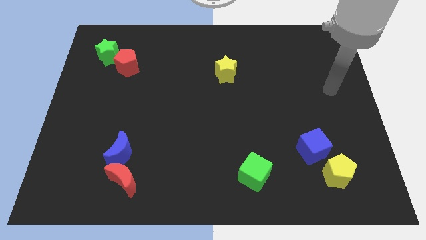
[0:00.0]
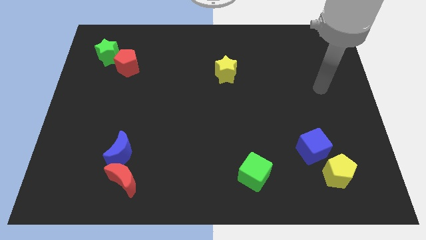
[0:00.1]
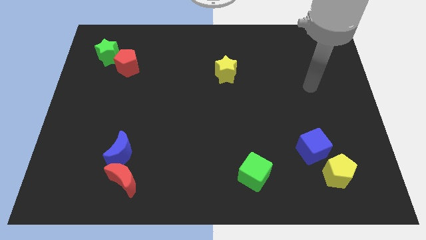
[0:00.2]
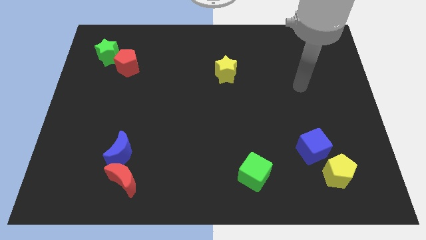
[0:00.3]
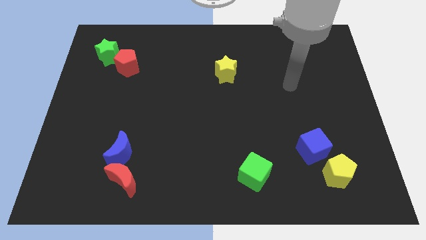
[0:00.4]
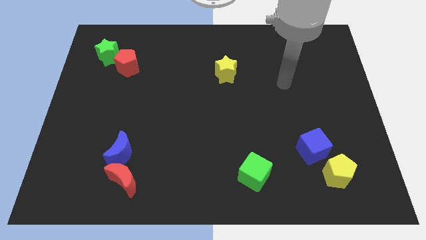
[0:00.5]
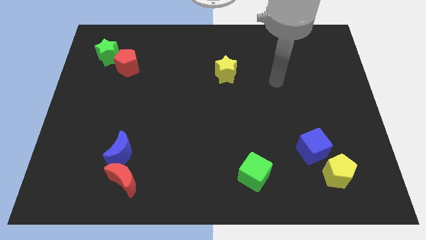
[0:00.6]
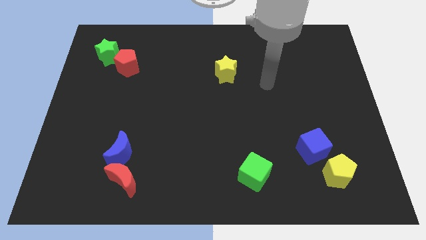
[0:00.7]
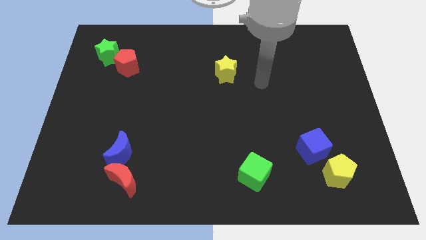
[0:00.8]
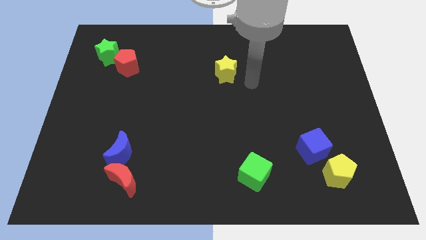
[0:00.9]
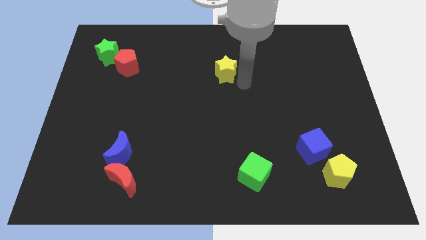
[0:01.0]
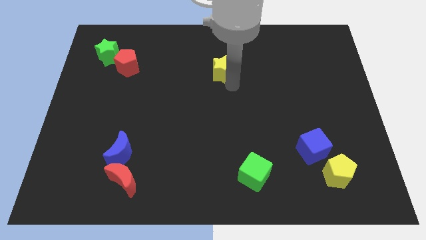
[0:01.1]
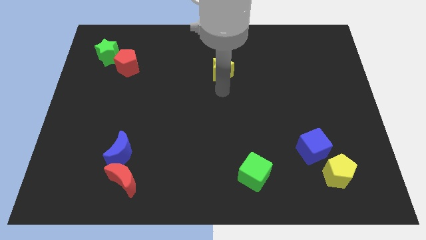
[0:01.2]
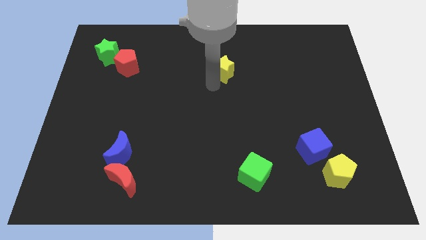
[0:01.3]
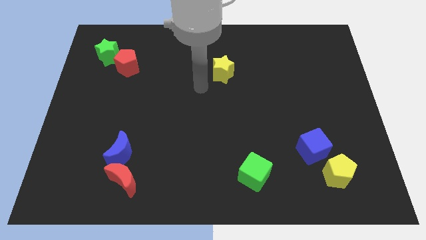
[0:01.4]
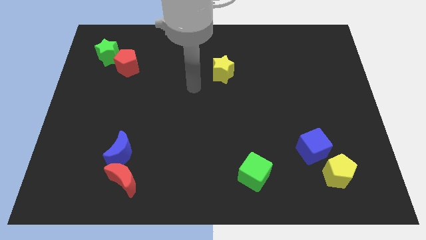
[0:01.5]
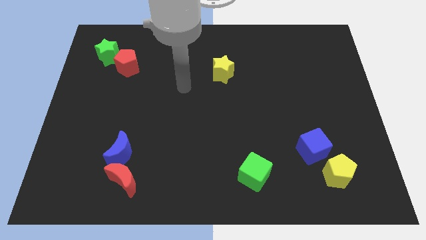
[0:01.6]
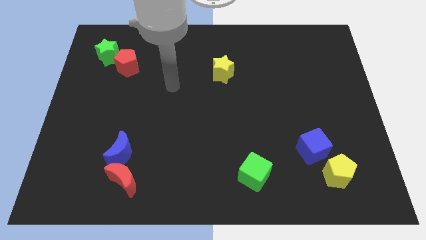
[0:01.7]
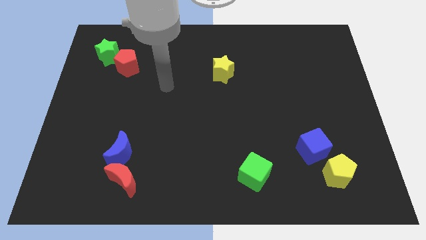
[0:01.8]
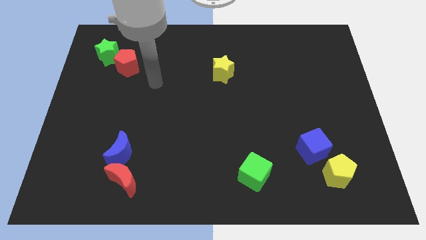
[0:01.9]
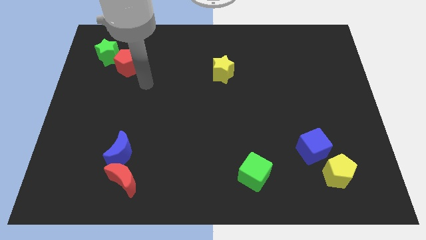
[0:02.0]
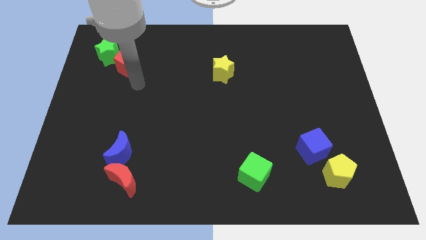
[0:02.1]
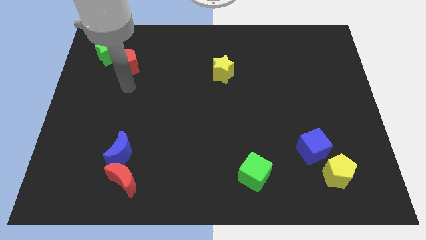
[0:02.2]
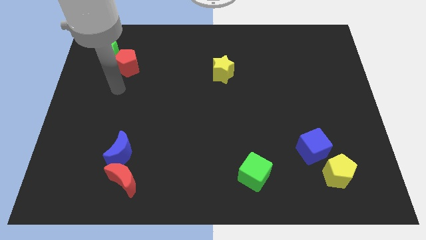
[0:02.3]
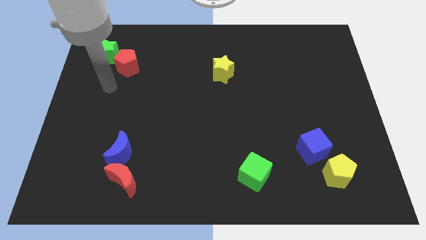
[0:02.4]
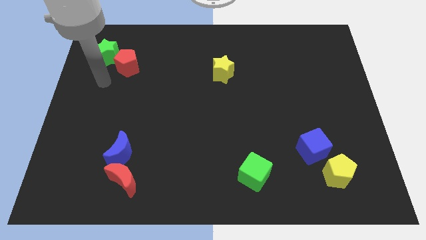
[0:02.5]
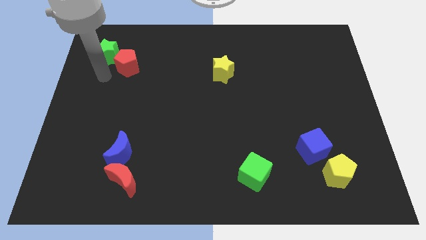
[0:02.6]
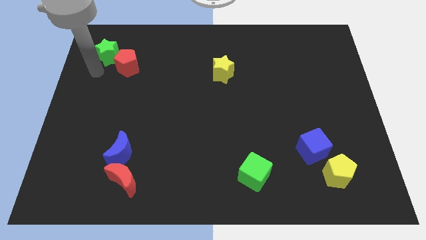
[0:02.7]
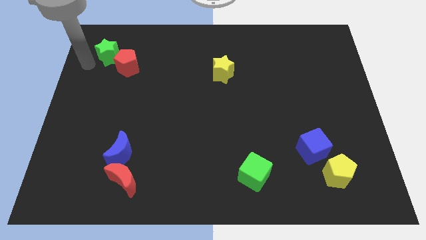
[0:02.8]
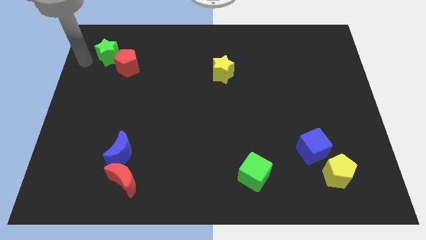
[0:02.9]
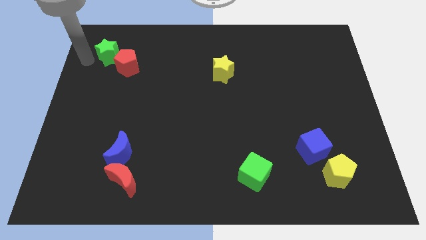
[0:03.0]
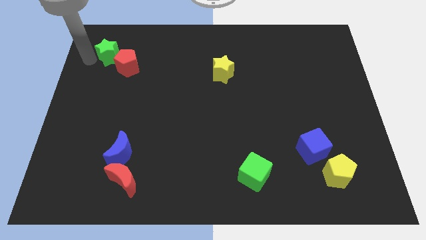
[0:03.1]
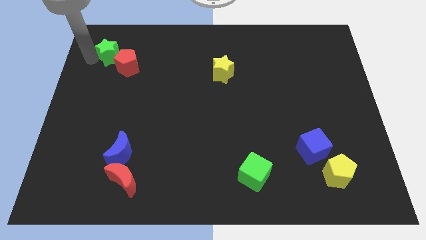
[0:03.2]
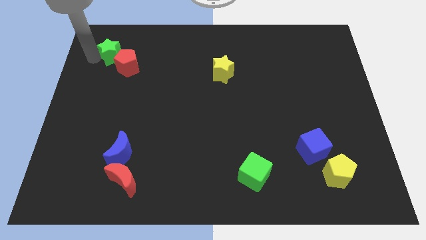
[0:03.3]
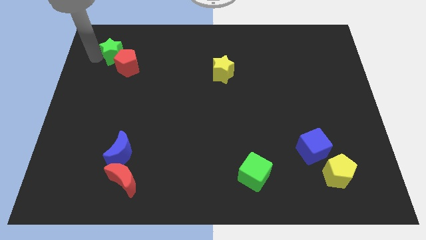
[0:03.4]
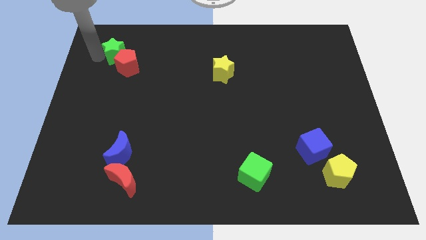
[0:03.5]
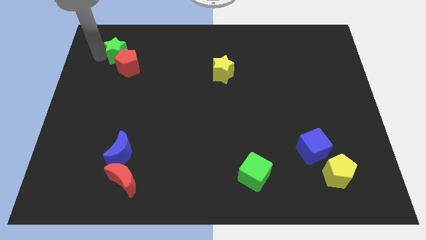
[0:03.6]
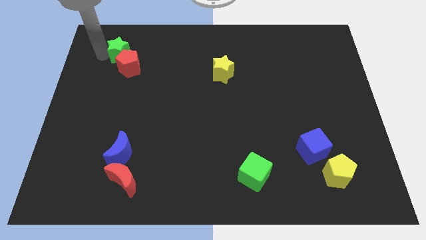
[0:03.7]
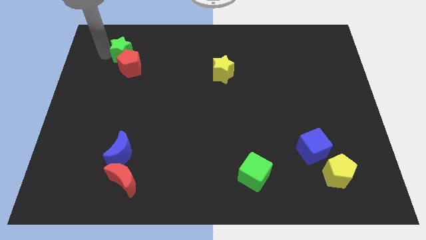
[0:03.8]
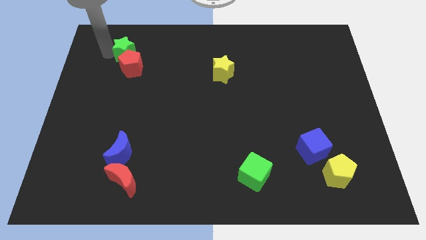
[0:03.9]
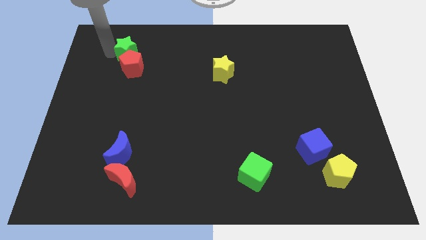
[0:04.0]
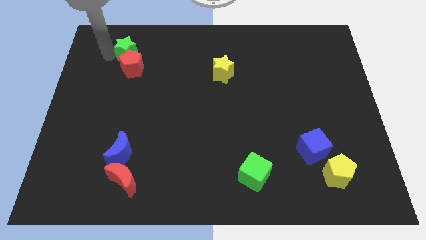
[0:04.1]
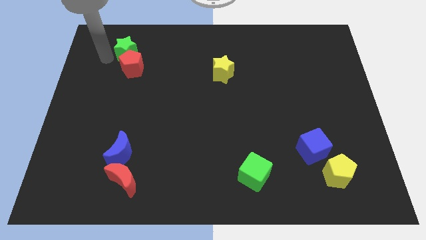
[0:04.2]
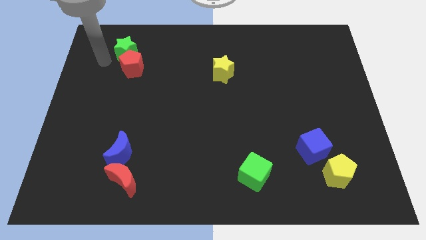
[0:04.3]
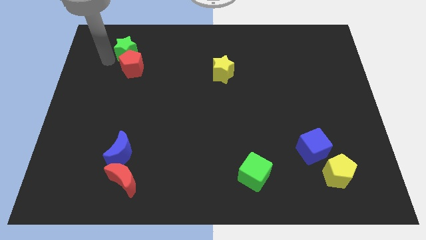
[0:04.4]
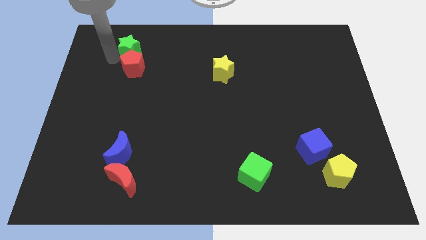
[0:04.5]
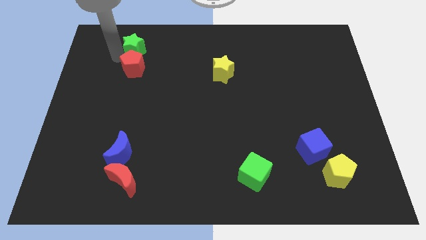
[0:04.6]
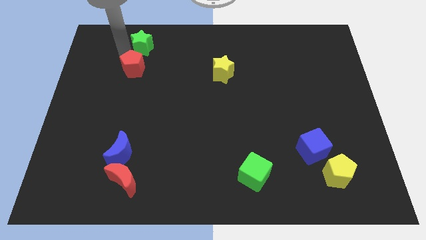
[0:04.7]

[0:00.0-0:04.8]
slightly move the green star to the right

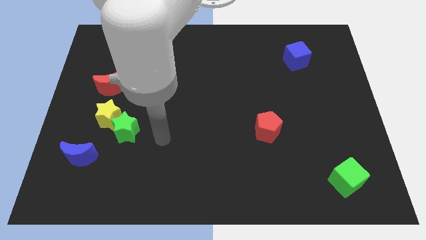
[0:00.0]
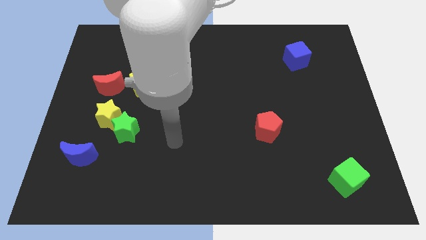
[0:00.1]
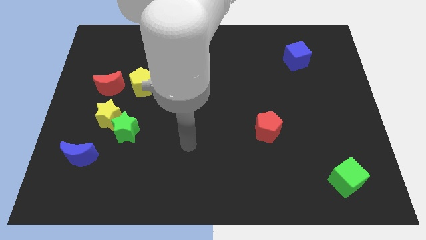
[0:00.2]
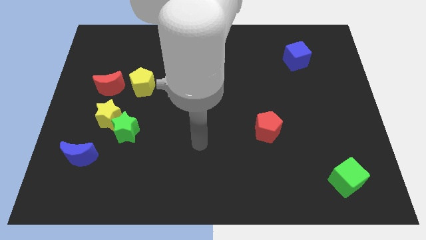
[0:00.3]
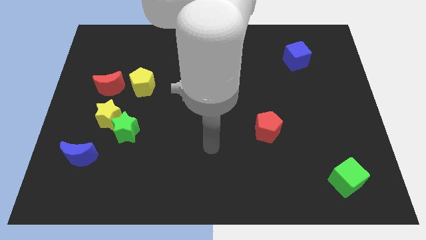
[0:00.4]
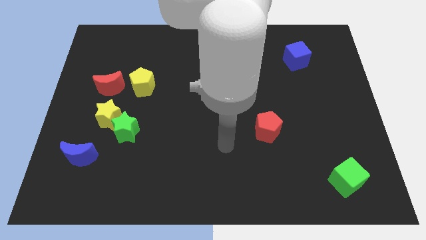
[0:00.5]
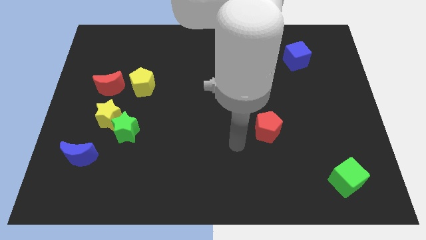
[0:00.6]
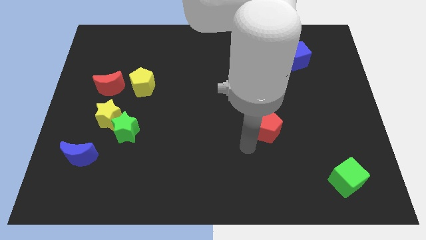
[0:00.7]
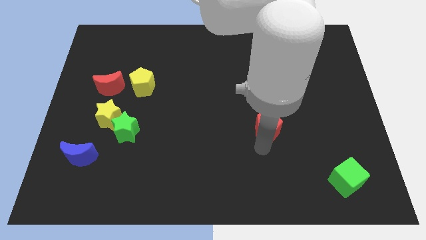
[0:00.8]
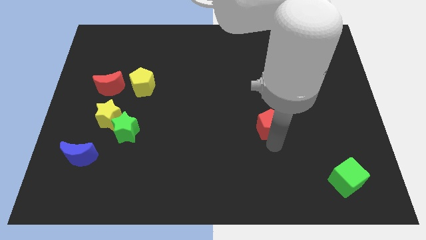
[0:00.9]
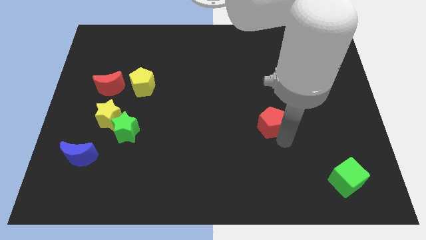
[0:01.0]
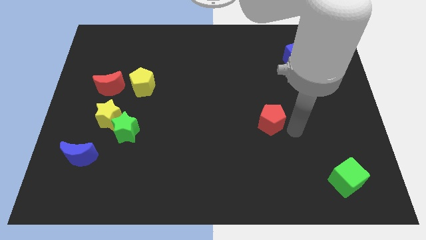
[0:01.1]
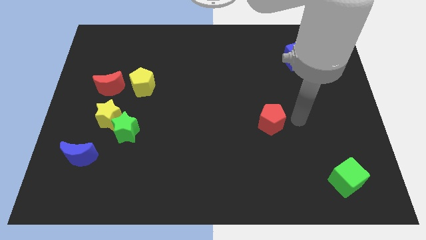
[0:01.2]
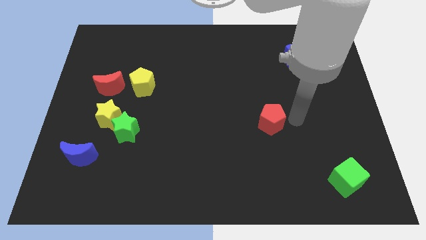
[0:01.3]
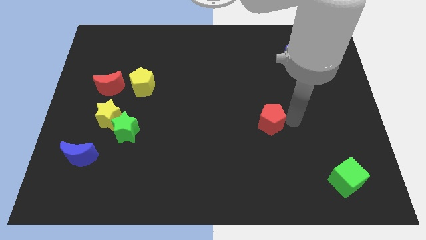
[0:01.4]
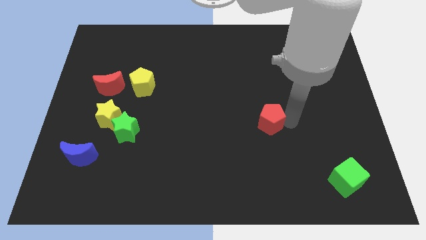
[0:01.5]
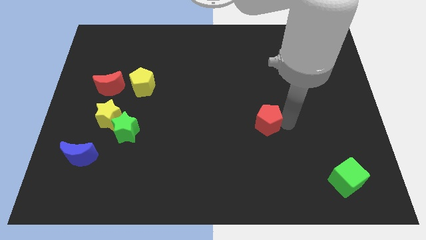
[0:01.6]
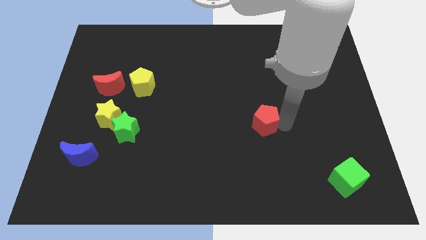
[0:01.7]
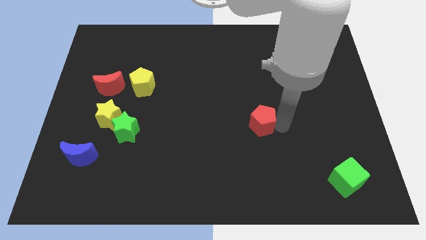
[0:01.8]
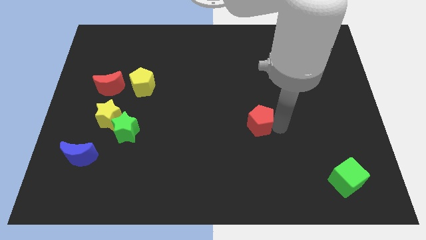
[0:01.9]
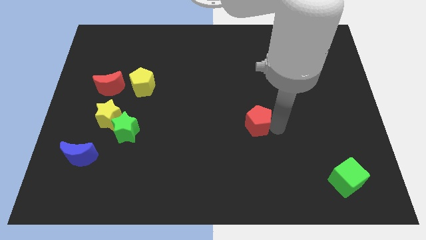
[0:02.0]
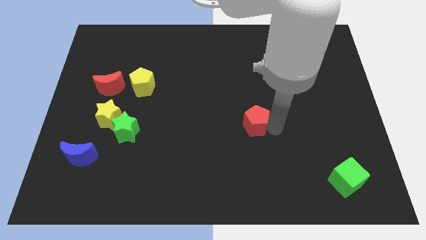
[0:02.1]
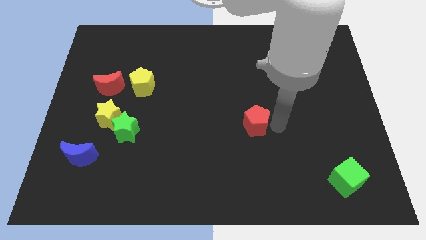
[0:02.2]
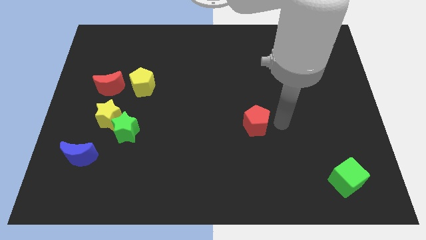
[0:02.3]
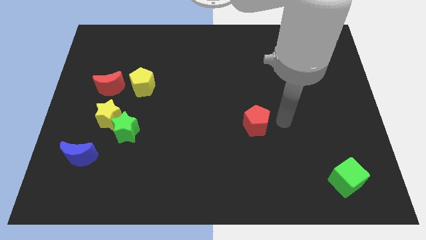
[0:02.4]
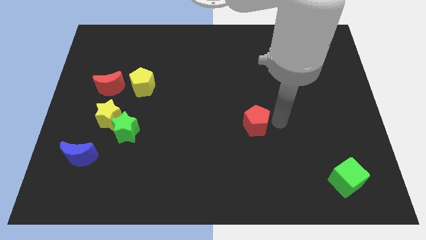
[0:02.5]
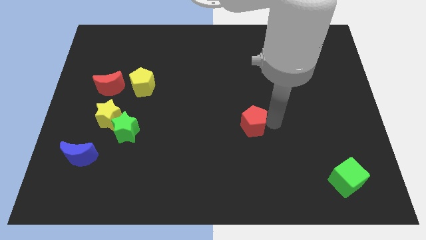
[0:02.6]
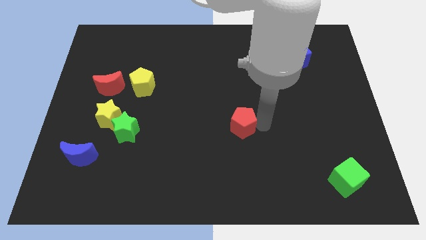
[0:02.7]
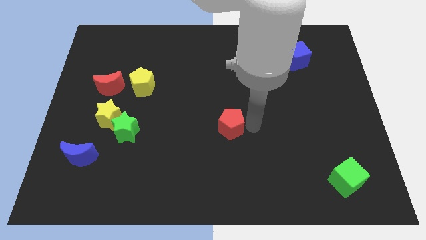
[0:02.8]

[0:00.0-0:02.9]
slide the red pentagon a little bit to the left

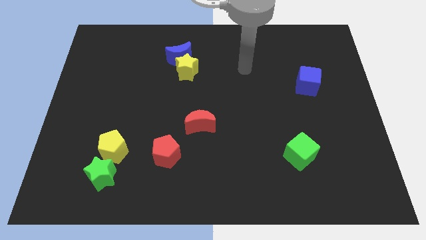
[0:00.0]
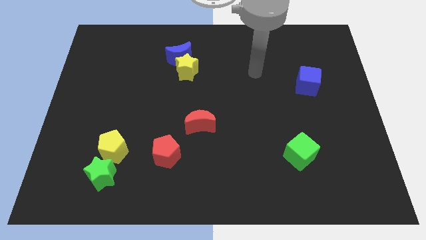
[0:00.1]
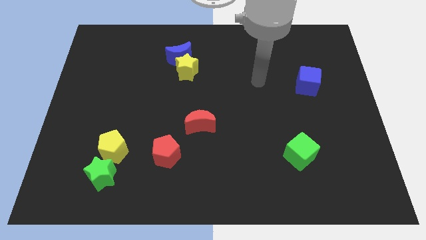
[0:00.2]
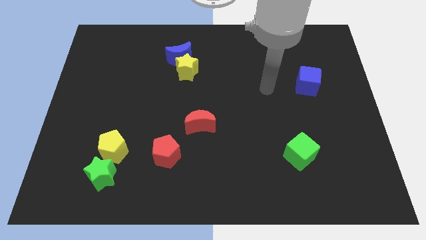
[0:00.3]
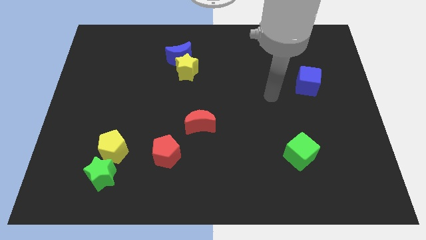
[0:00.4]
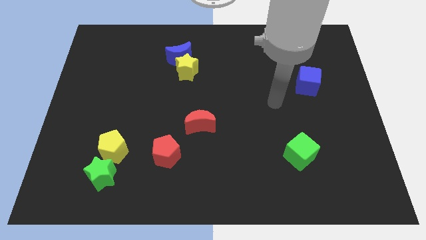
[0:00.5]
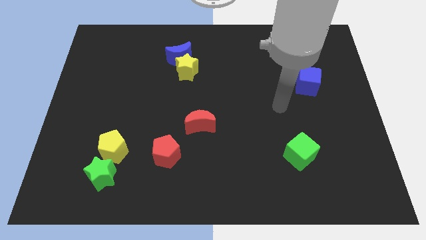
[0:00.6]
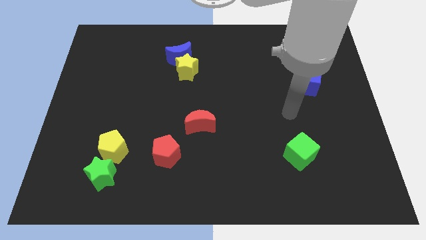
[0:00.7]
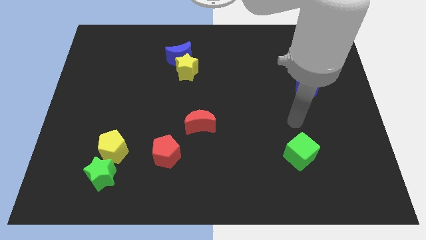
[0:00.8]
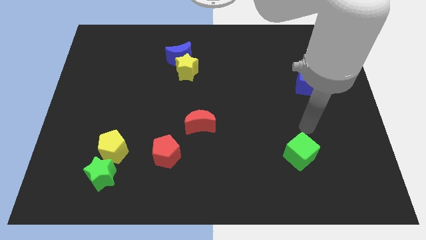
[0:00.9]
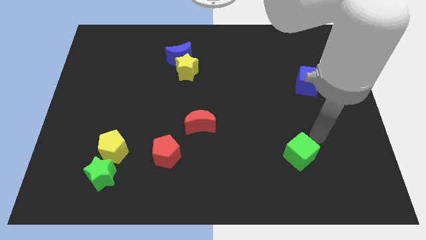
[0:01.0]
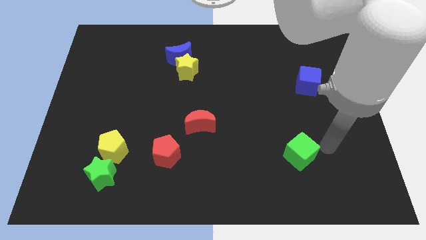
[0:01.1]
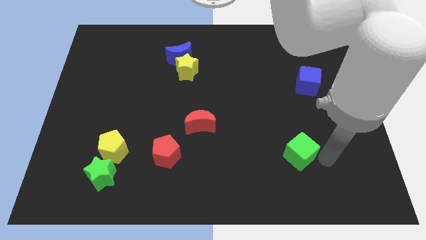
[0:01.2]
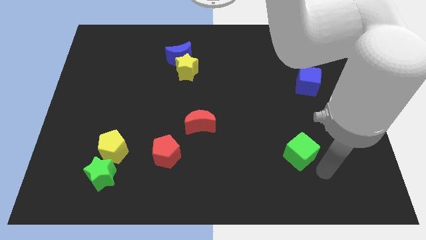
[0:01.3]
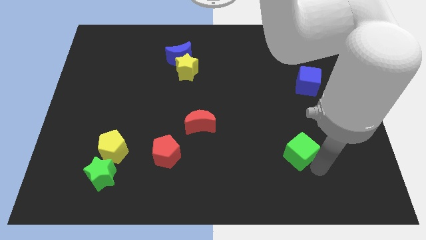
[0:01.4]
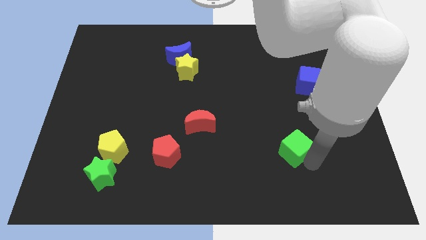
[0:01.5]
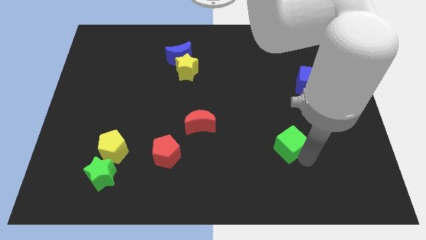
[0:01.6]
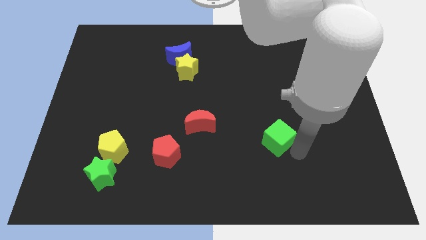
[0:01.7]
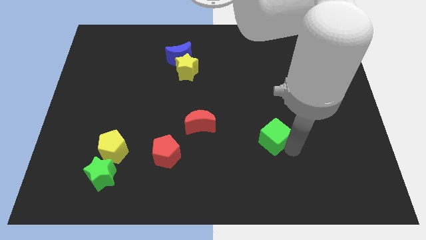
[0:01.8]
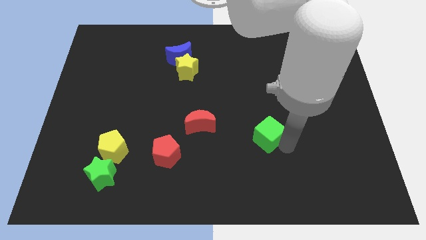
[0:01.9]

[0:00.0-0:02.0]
slightly push the green cube up and to the left
